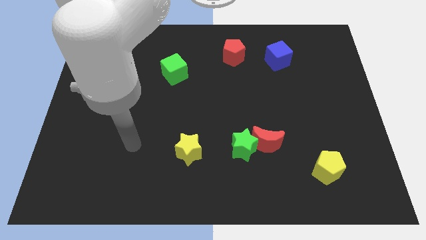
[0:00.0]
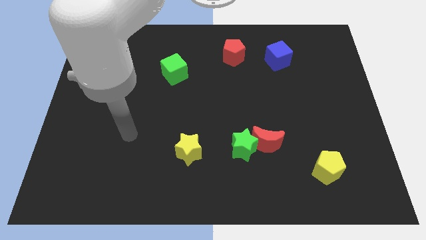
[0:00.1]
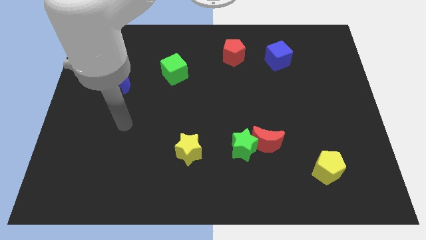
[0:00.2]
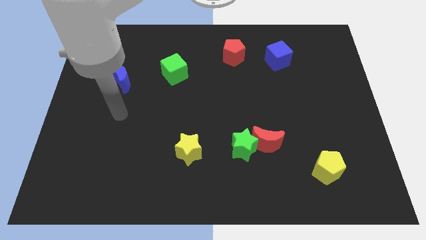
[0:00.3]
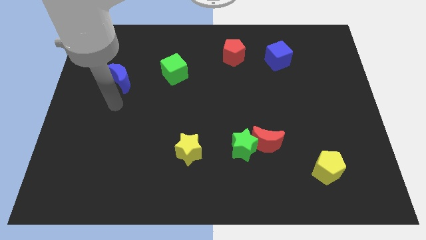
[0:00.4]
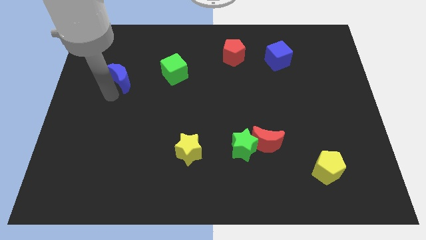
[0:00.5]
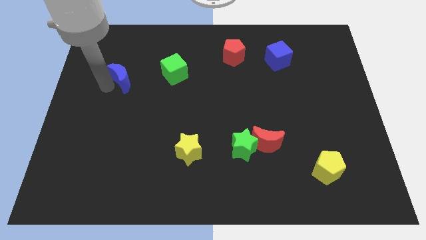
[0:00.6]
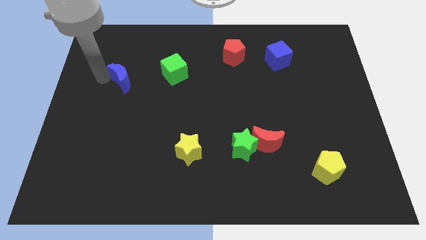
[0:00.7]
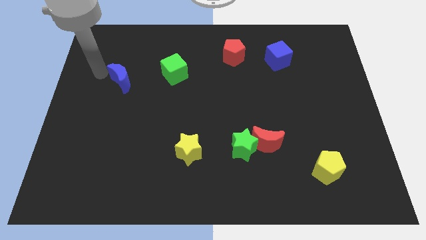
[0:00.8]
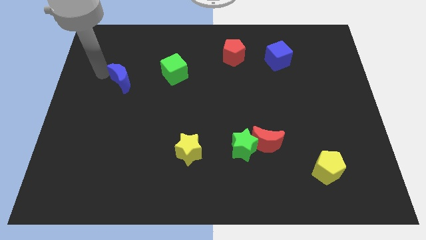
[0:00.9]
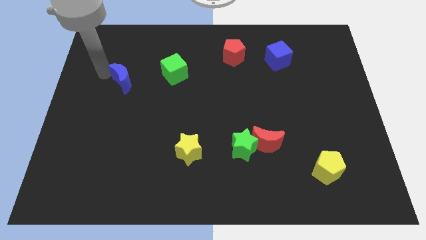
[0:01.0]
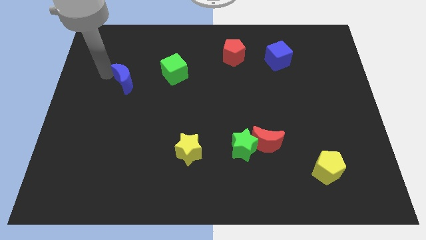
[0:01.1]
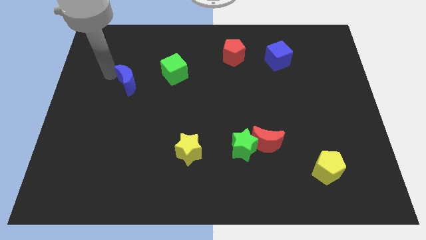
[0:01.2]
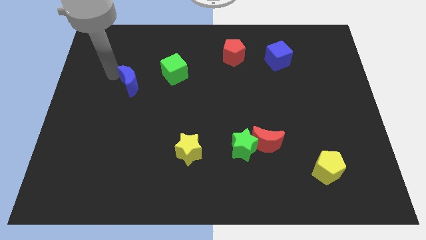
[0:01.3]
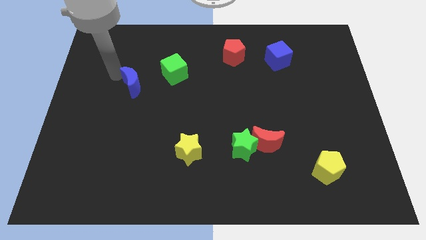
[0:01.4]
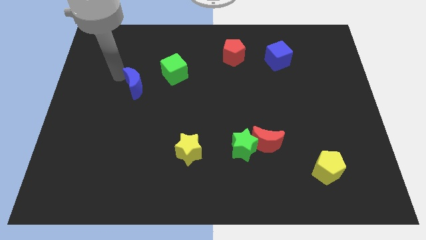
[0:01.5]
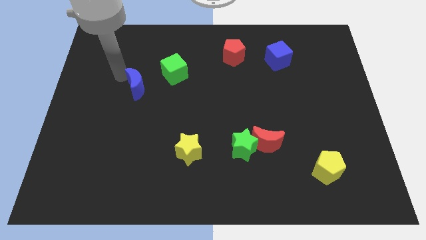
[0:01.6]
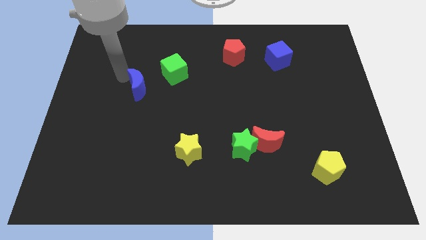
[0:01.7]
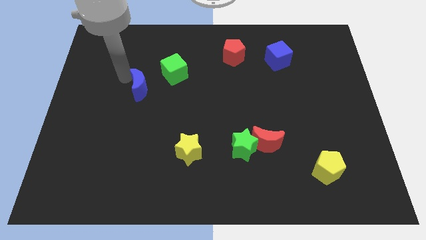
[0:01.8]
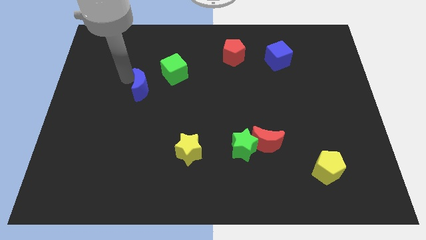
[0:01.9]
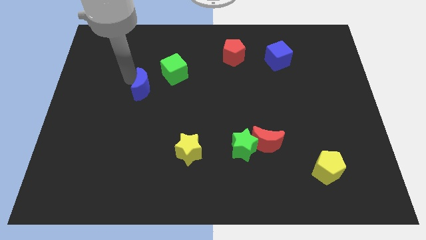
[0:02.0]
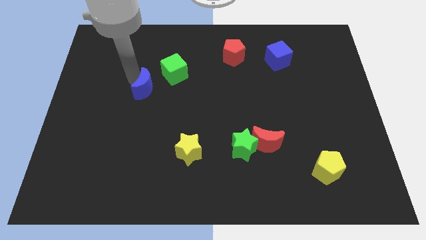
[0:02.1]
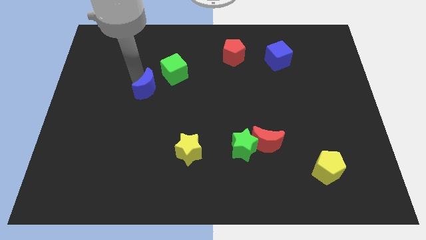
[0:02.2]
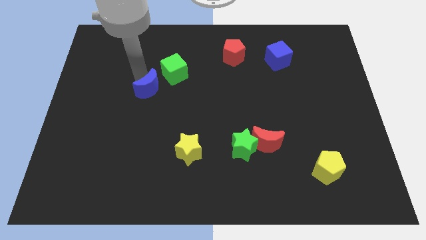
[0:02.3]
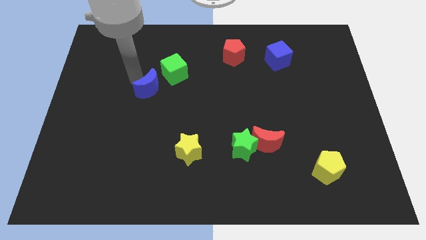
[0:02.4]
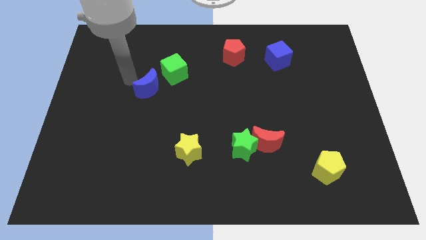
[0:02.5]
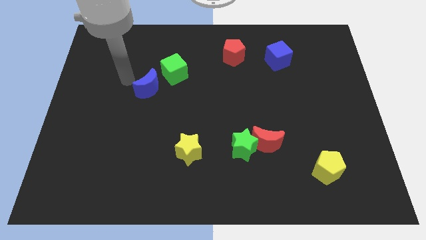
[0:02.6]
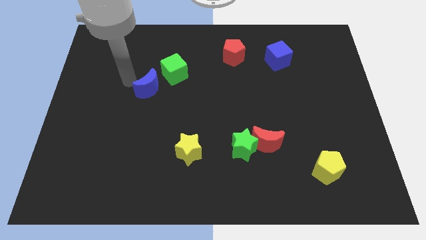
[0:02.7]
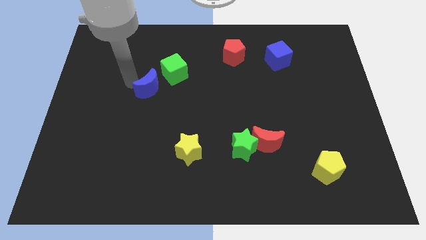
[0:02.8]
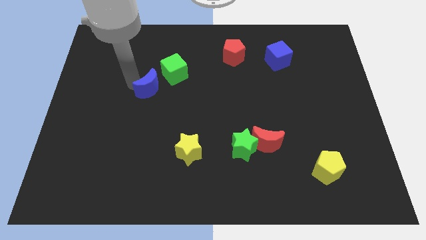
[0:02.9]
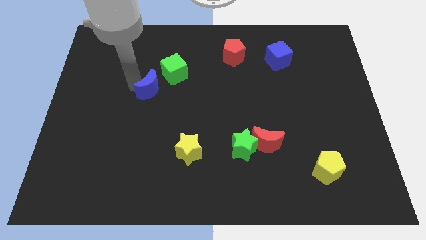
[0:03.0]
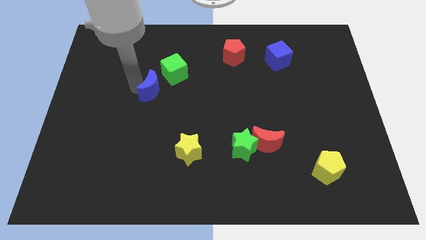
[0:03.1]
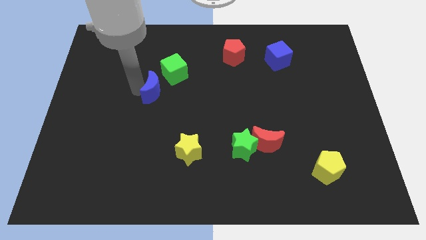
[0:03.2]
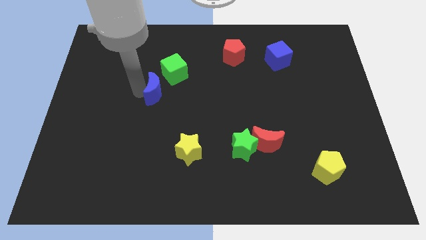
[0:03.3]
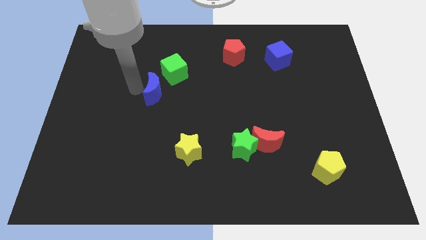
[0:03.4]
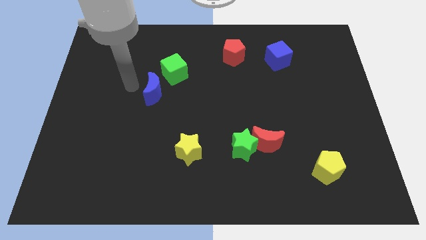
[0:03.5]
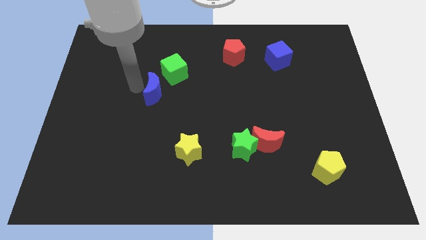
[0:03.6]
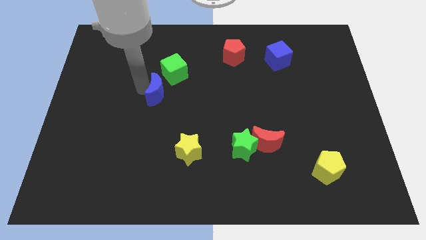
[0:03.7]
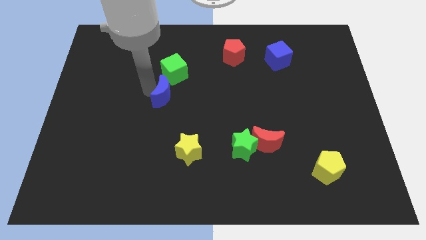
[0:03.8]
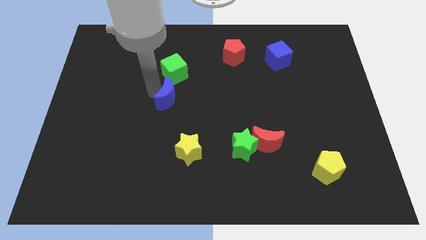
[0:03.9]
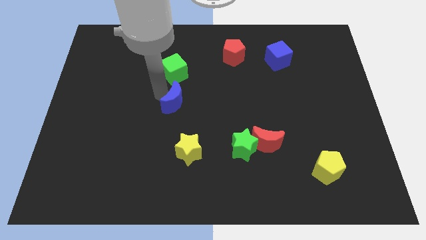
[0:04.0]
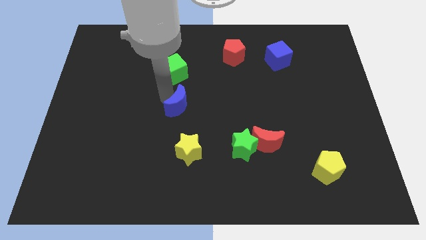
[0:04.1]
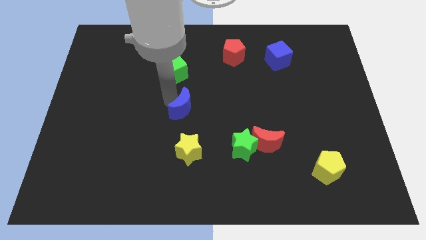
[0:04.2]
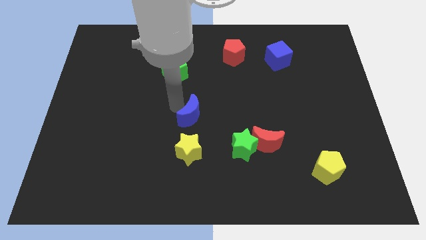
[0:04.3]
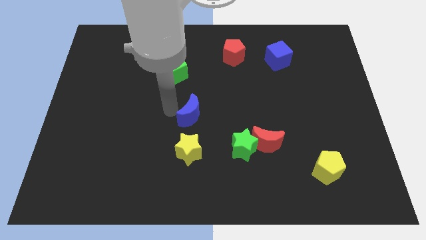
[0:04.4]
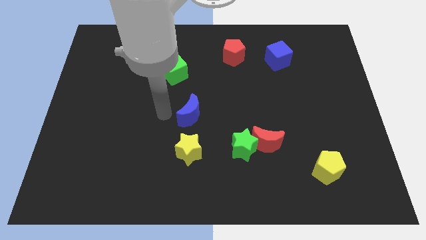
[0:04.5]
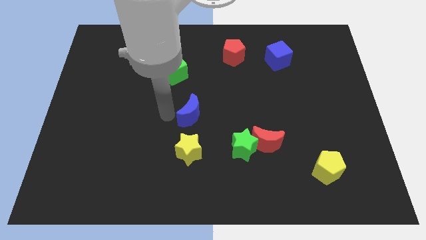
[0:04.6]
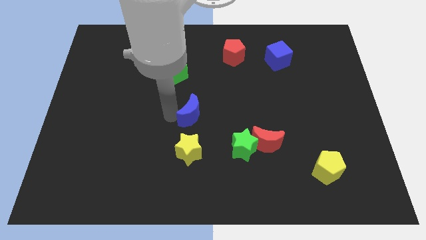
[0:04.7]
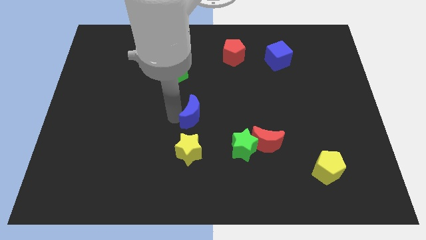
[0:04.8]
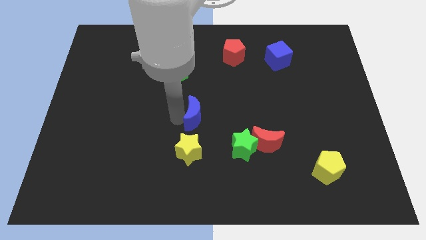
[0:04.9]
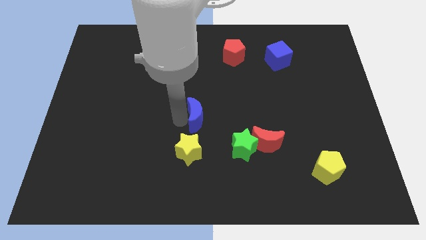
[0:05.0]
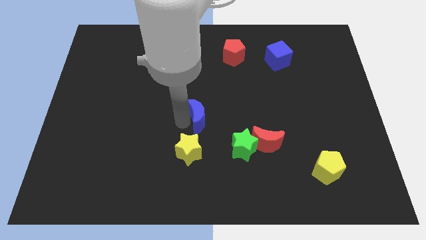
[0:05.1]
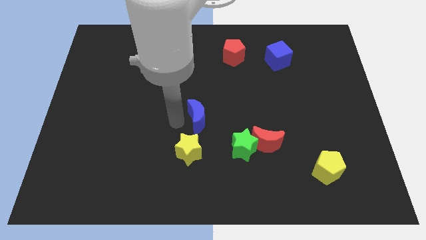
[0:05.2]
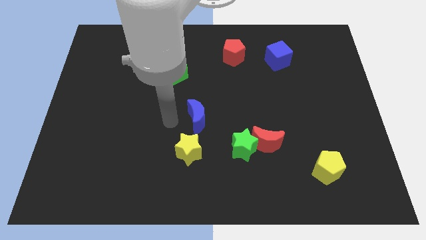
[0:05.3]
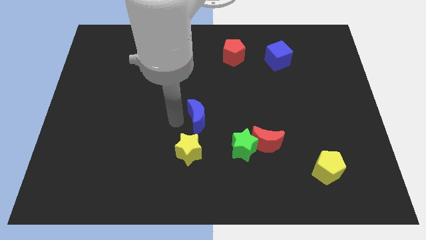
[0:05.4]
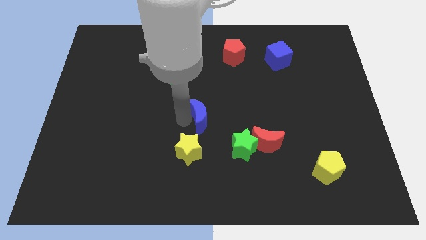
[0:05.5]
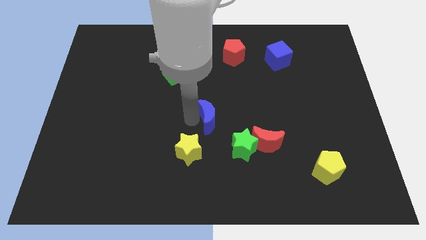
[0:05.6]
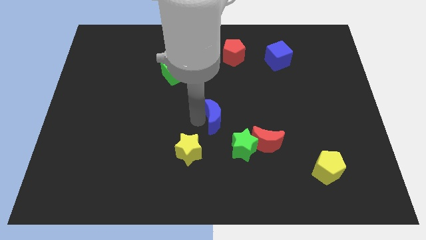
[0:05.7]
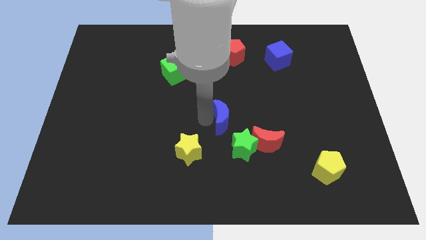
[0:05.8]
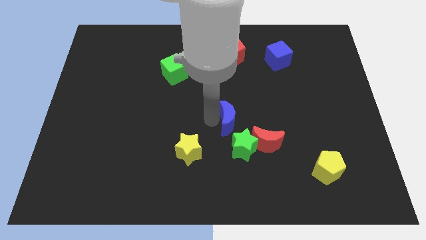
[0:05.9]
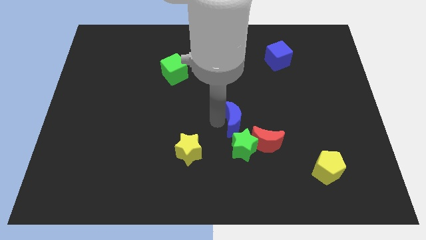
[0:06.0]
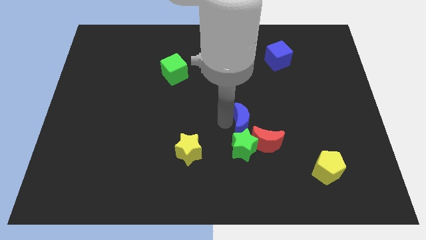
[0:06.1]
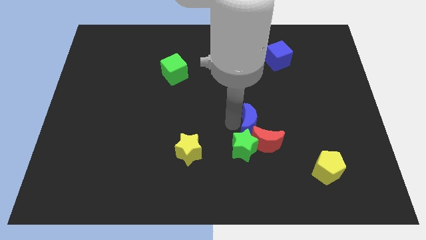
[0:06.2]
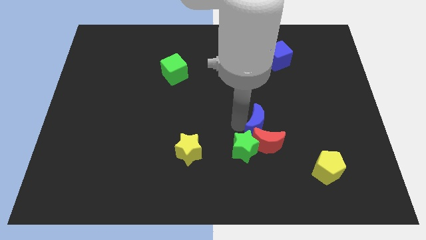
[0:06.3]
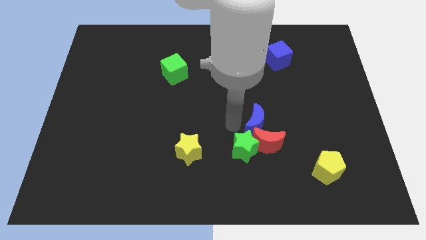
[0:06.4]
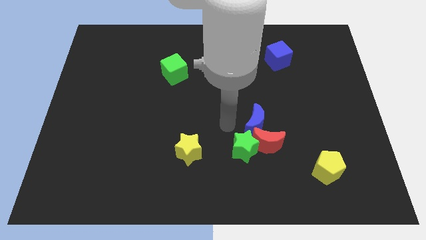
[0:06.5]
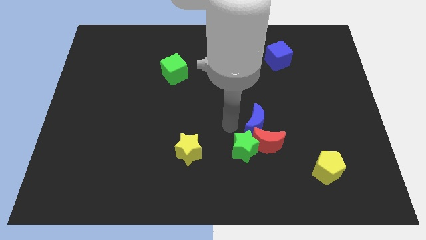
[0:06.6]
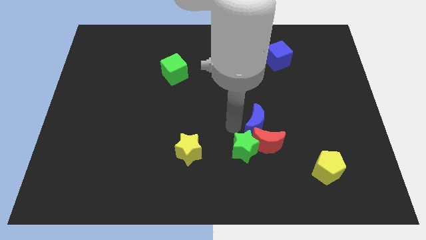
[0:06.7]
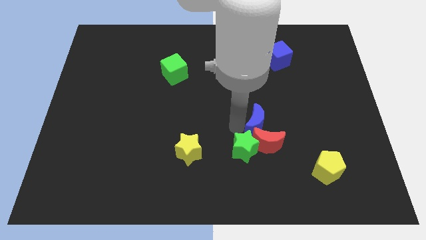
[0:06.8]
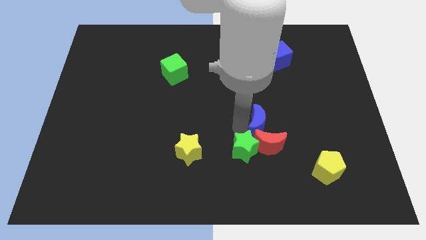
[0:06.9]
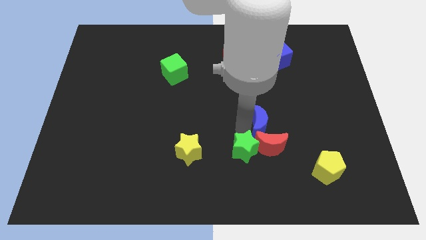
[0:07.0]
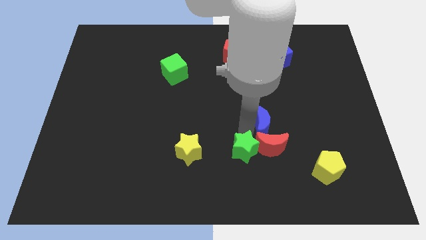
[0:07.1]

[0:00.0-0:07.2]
push the blue moon to the top right side of the red moon

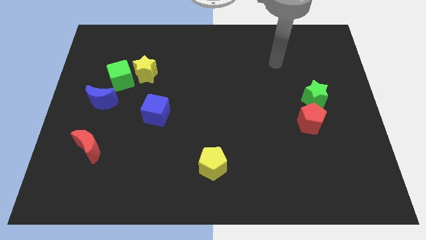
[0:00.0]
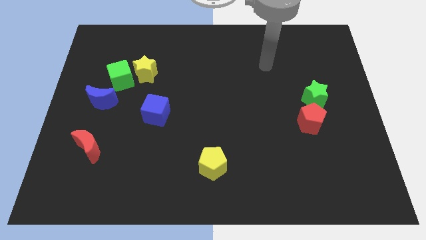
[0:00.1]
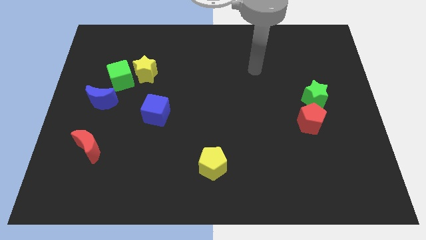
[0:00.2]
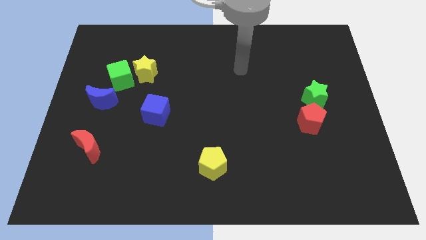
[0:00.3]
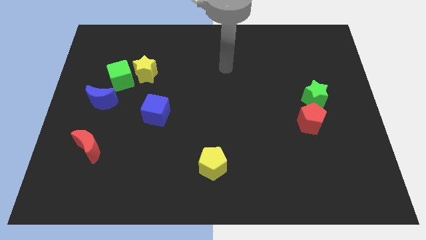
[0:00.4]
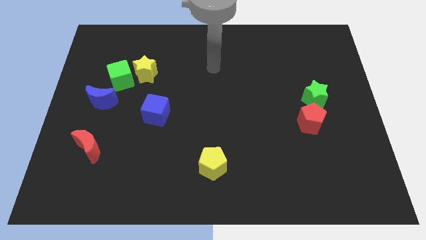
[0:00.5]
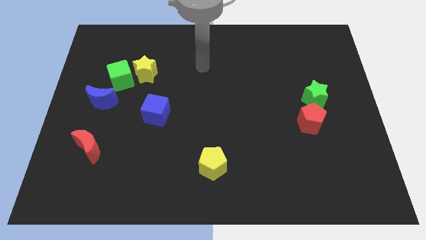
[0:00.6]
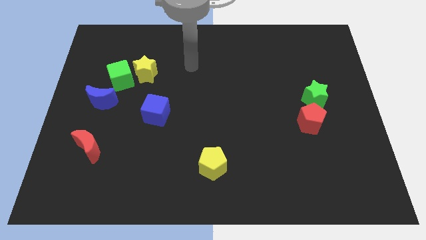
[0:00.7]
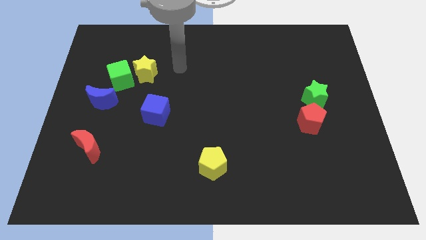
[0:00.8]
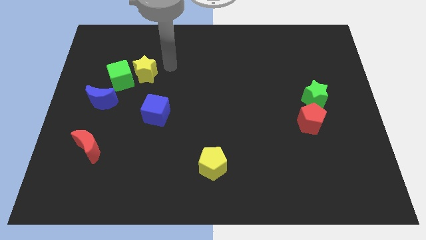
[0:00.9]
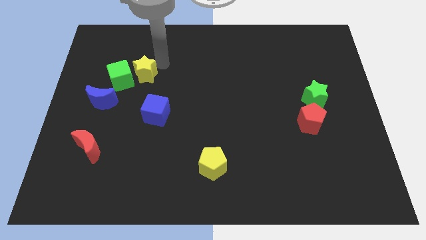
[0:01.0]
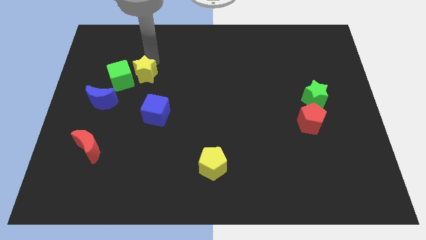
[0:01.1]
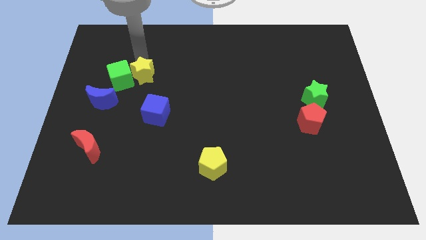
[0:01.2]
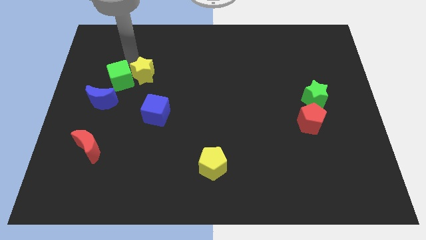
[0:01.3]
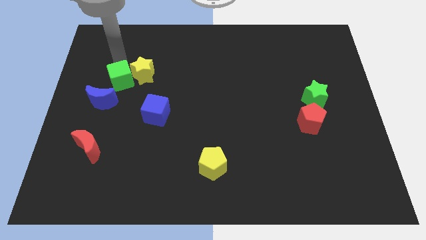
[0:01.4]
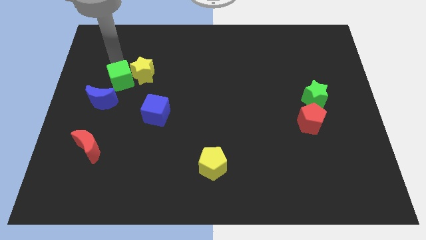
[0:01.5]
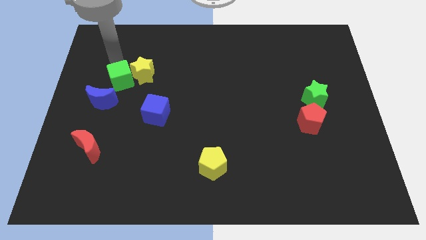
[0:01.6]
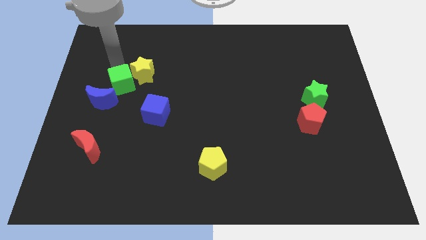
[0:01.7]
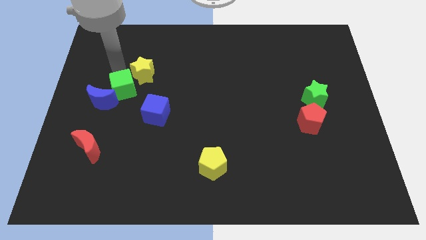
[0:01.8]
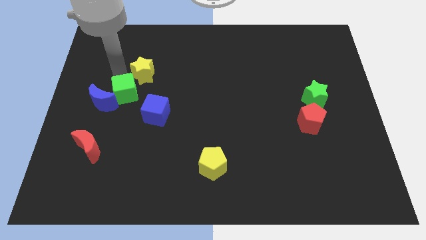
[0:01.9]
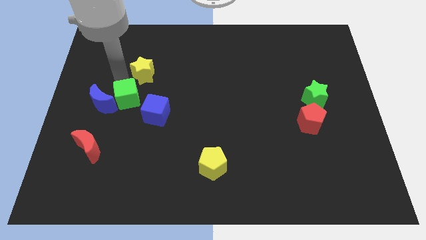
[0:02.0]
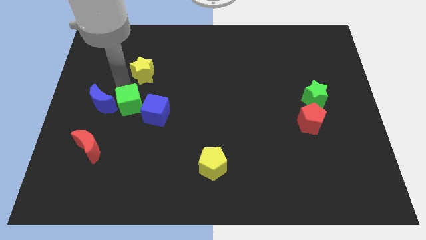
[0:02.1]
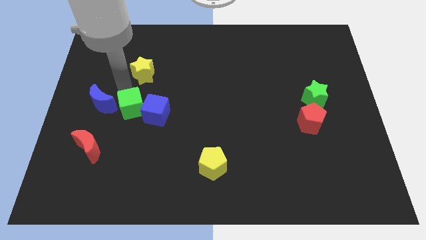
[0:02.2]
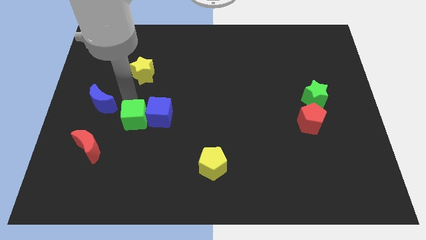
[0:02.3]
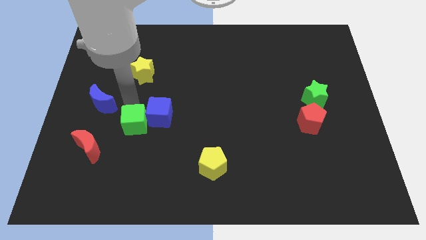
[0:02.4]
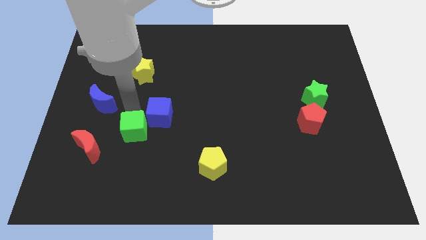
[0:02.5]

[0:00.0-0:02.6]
move the green cube just right of the red moon
